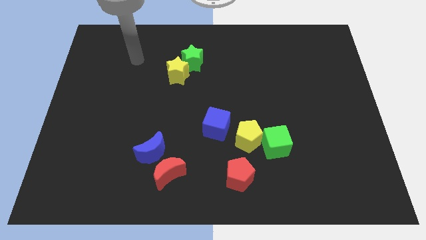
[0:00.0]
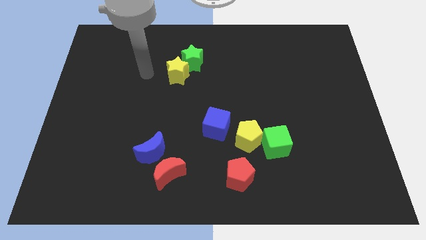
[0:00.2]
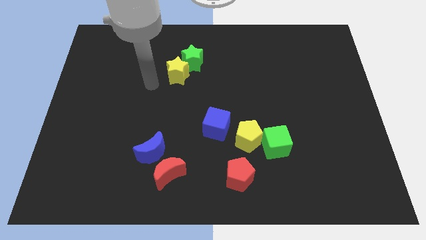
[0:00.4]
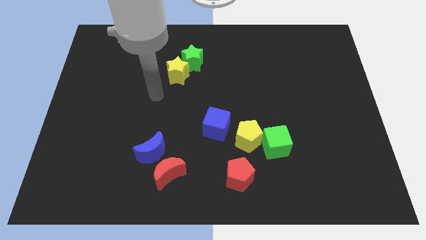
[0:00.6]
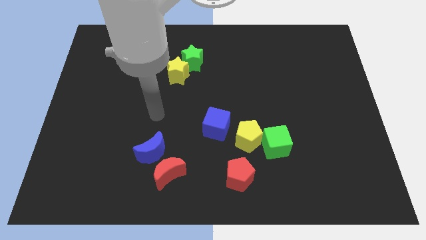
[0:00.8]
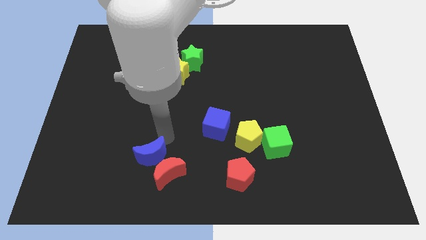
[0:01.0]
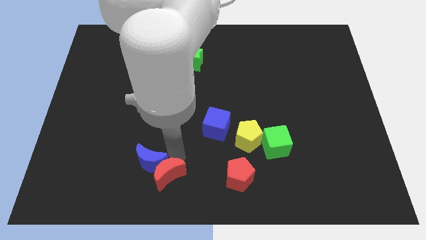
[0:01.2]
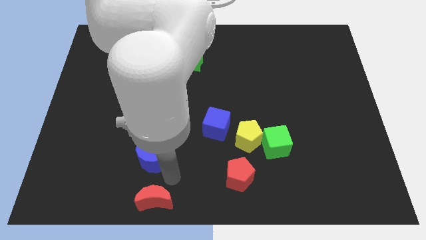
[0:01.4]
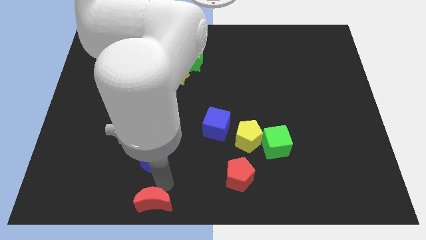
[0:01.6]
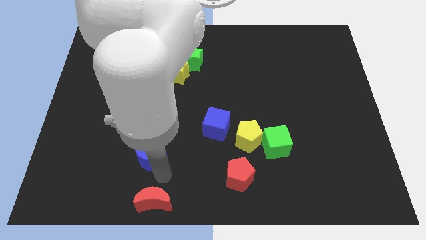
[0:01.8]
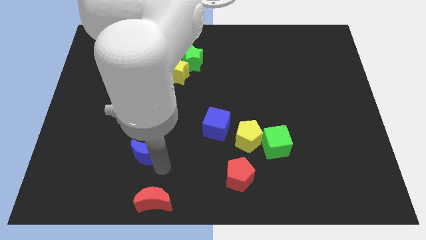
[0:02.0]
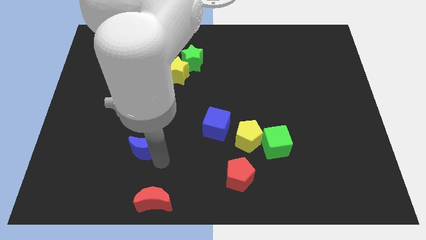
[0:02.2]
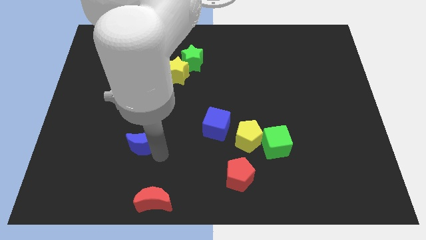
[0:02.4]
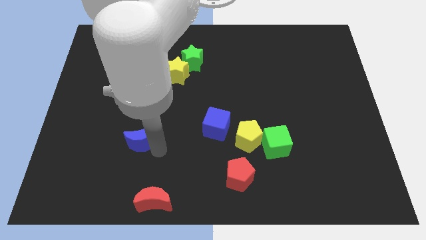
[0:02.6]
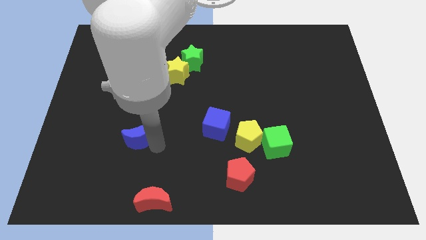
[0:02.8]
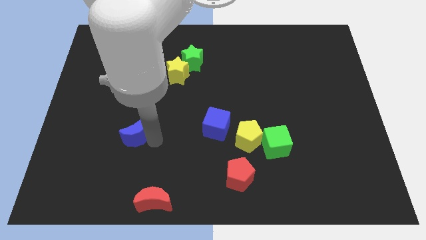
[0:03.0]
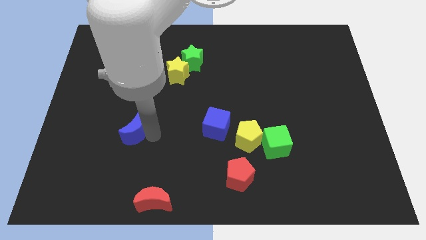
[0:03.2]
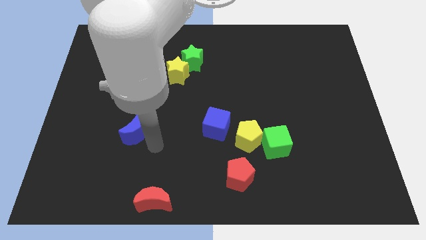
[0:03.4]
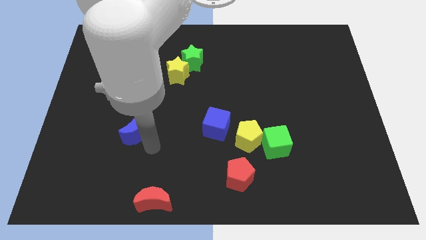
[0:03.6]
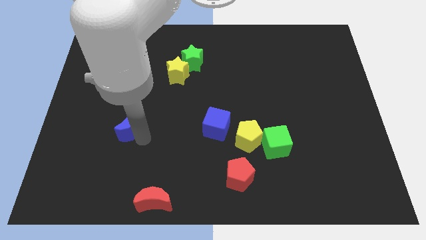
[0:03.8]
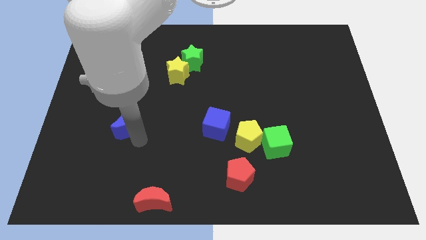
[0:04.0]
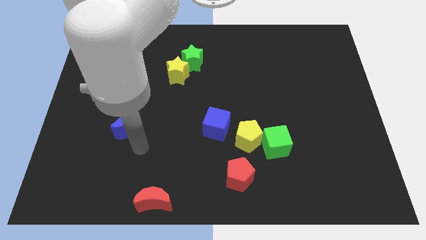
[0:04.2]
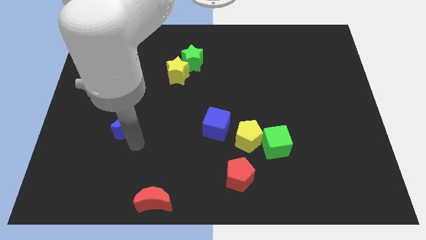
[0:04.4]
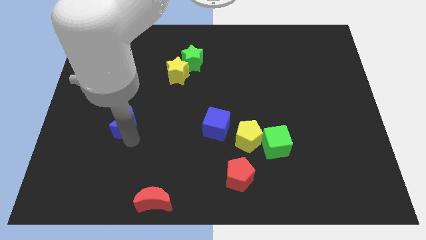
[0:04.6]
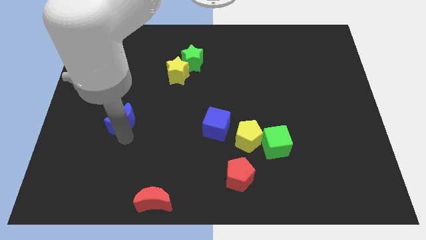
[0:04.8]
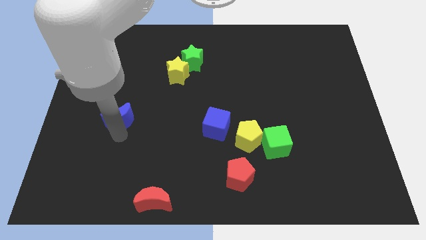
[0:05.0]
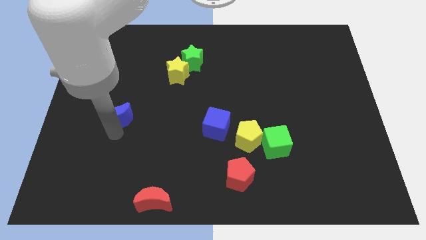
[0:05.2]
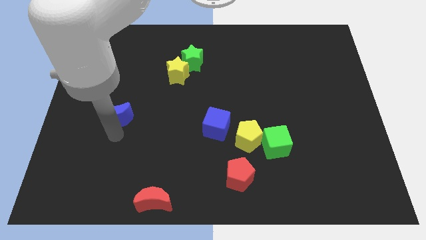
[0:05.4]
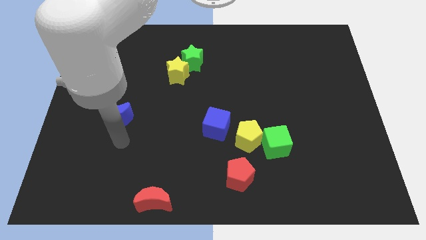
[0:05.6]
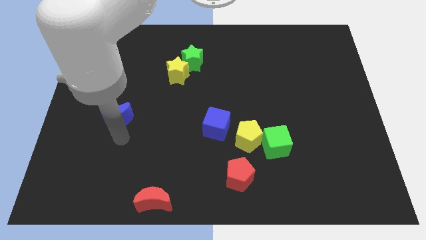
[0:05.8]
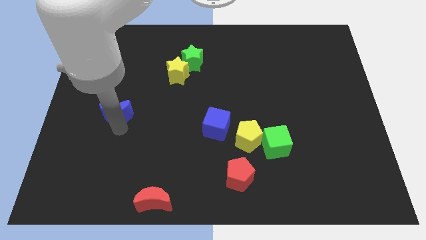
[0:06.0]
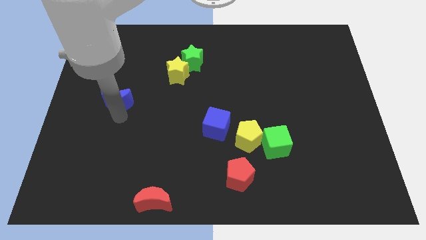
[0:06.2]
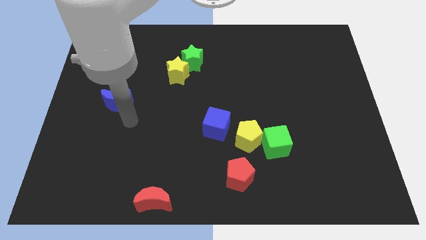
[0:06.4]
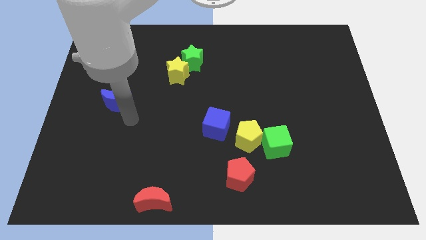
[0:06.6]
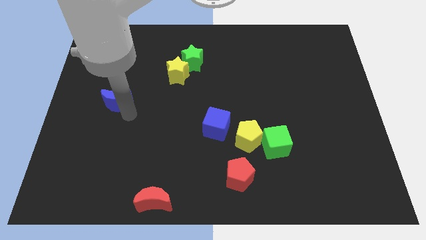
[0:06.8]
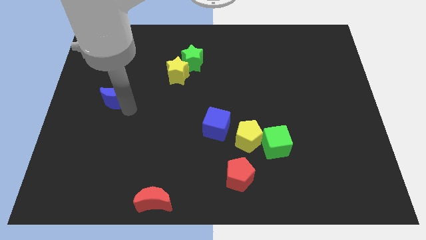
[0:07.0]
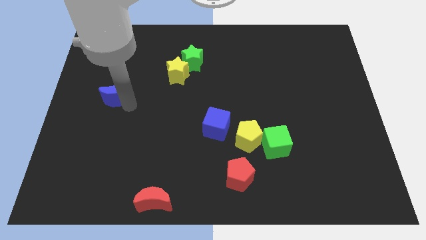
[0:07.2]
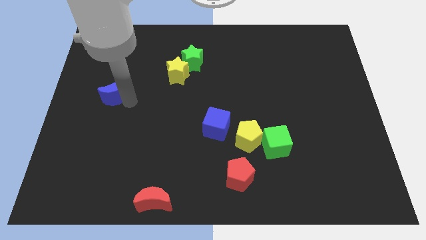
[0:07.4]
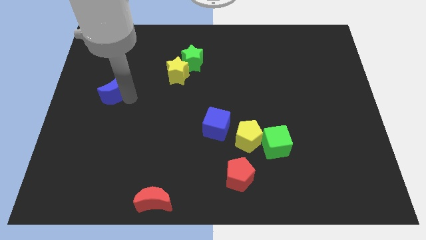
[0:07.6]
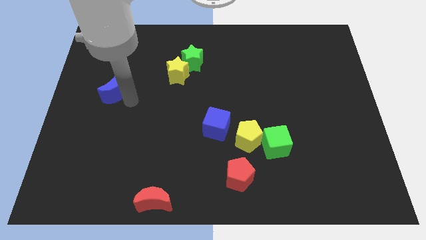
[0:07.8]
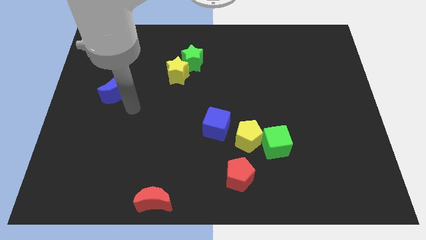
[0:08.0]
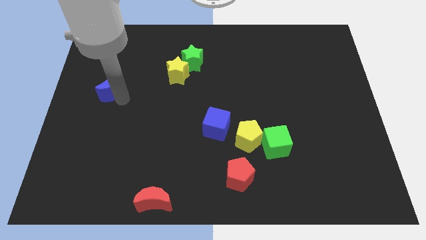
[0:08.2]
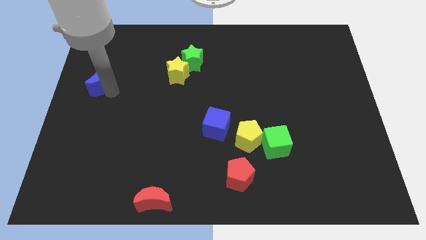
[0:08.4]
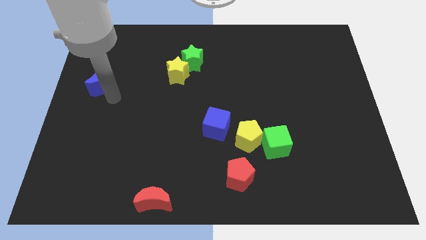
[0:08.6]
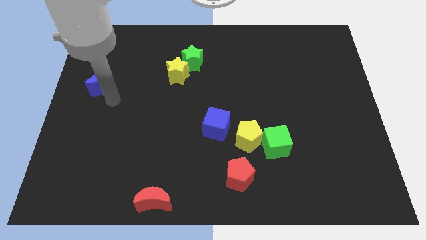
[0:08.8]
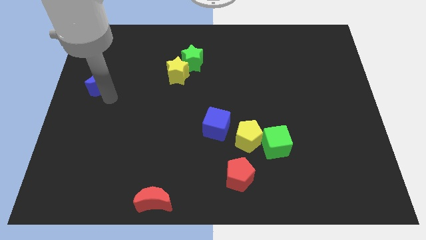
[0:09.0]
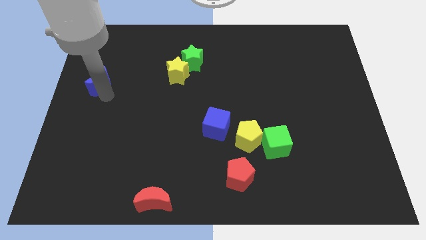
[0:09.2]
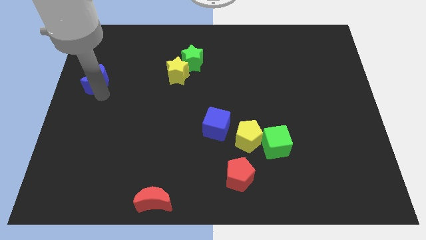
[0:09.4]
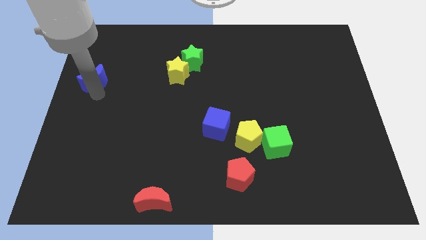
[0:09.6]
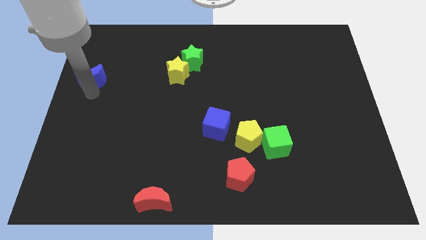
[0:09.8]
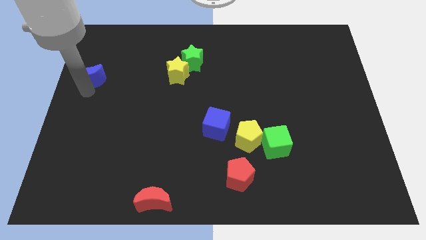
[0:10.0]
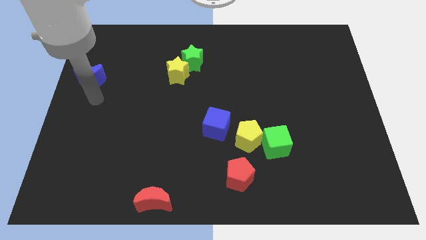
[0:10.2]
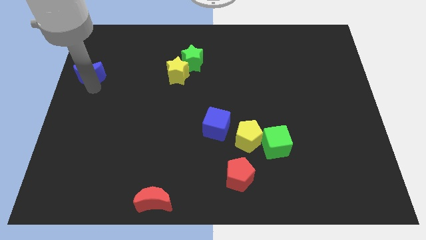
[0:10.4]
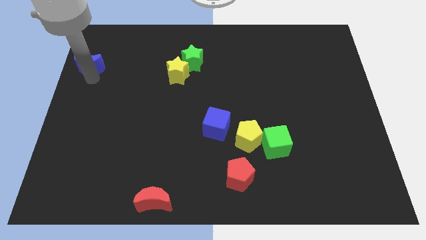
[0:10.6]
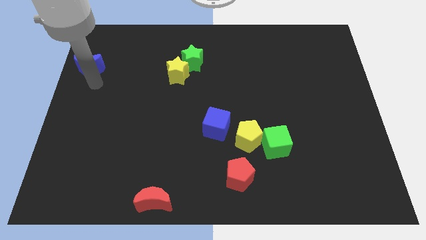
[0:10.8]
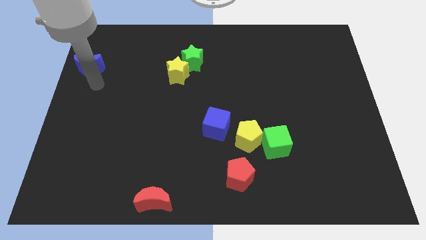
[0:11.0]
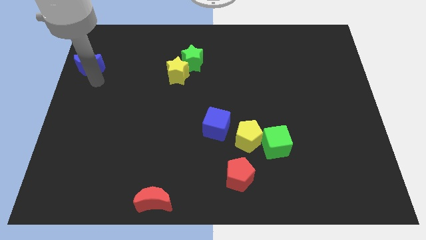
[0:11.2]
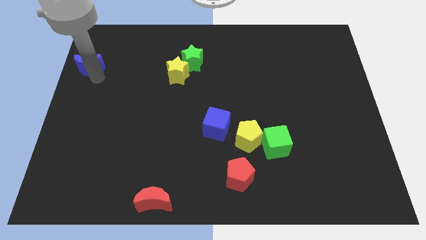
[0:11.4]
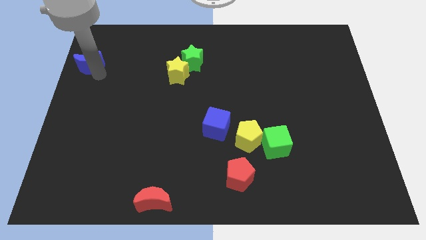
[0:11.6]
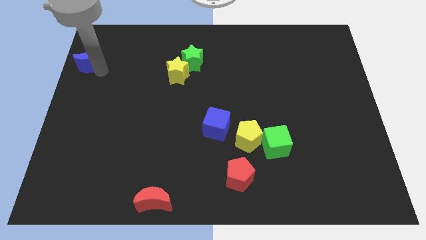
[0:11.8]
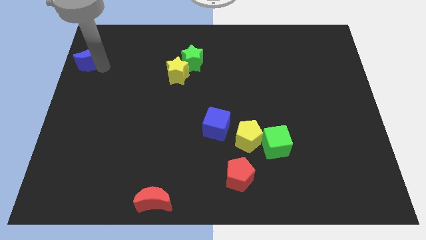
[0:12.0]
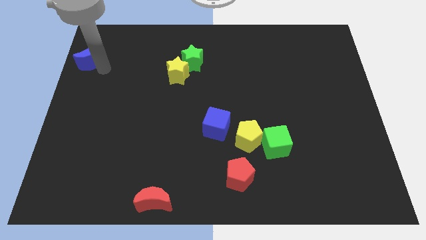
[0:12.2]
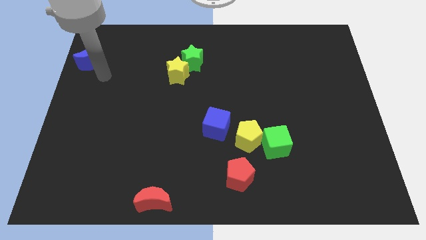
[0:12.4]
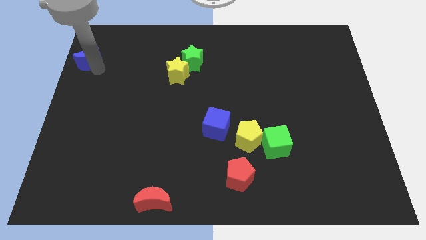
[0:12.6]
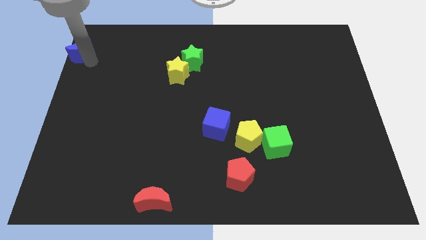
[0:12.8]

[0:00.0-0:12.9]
put the blue moon to the top left corner
